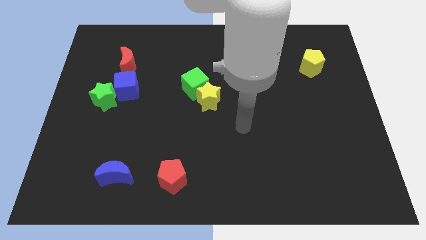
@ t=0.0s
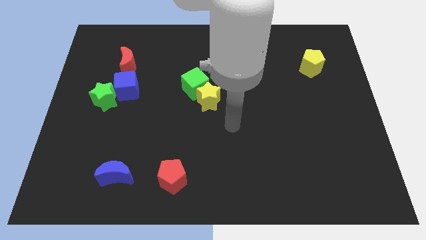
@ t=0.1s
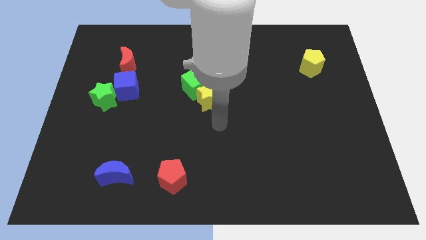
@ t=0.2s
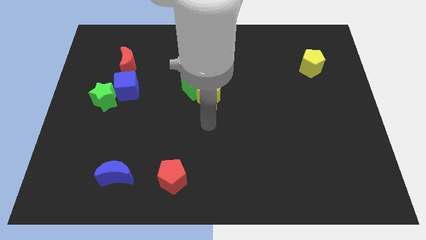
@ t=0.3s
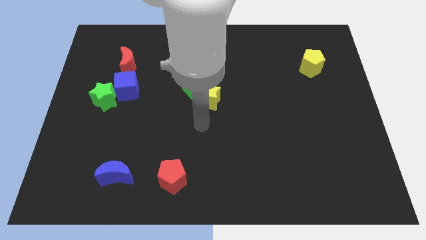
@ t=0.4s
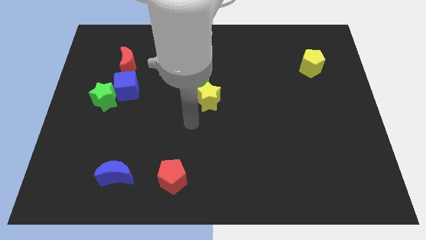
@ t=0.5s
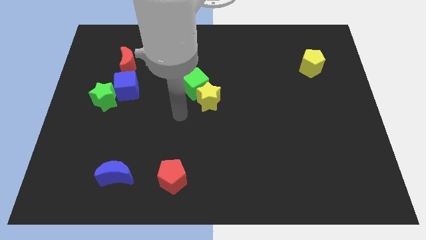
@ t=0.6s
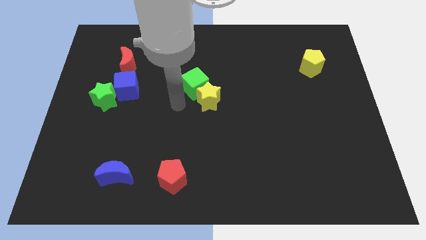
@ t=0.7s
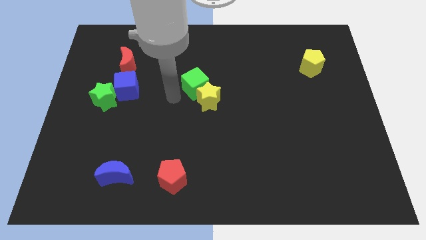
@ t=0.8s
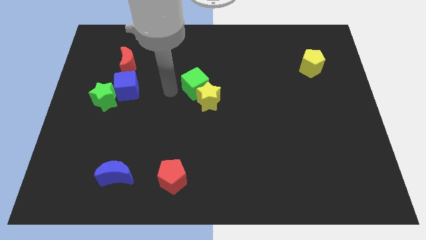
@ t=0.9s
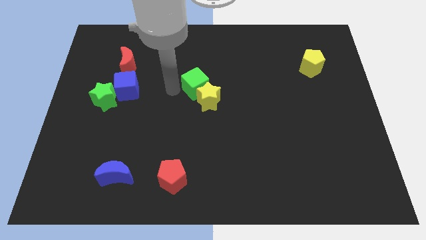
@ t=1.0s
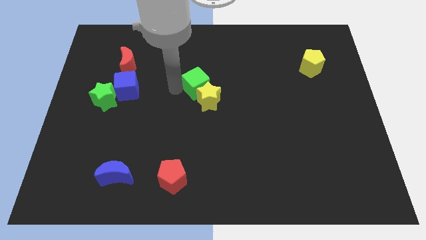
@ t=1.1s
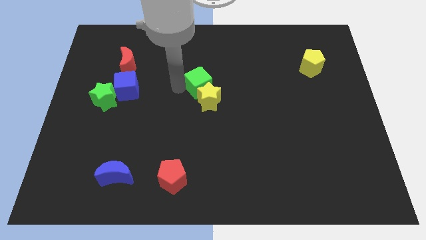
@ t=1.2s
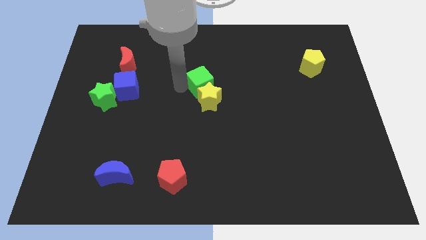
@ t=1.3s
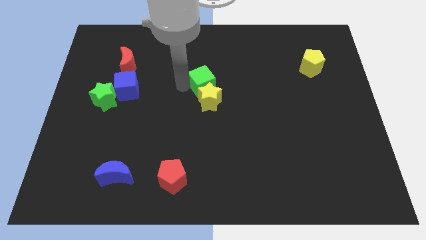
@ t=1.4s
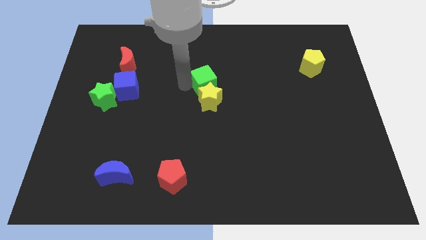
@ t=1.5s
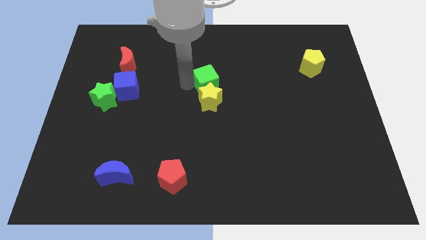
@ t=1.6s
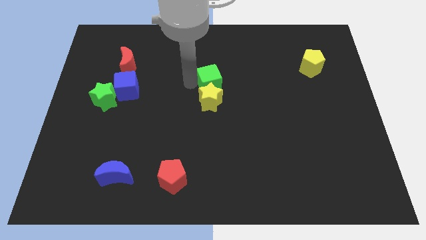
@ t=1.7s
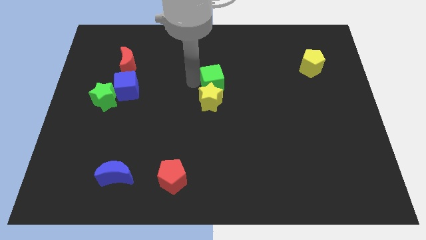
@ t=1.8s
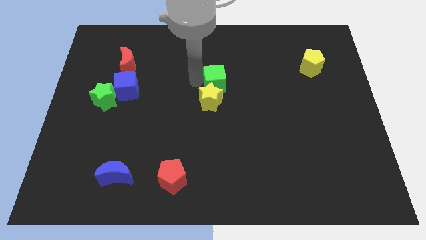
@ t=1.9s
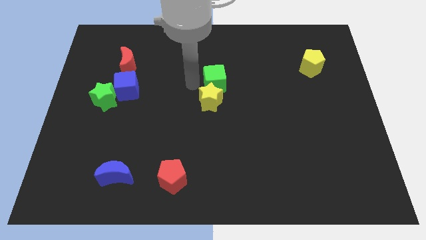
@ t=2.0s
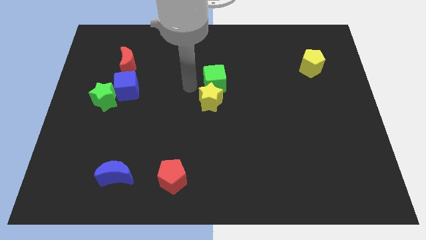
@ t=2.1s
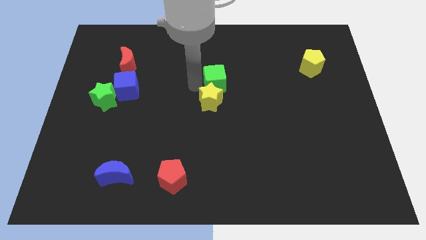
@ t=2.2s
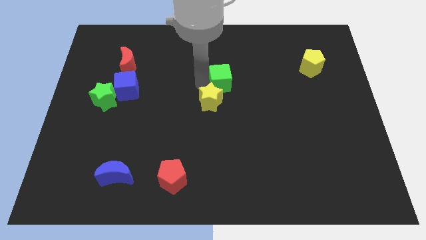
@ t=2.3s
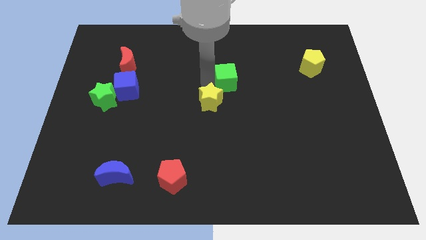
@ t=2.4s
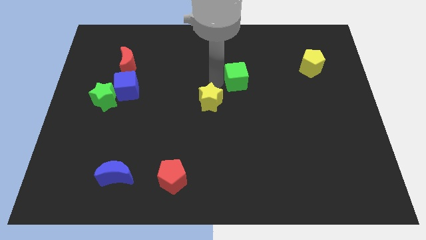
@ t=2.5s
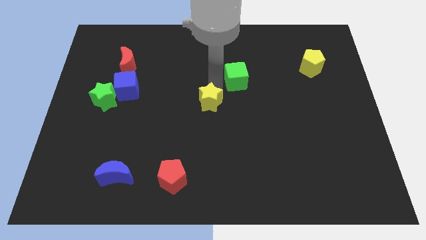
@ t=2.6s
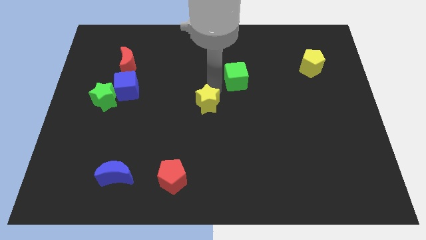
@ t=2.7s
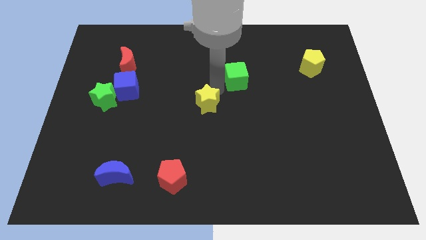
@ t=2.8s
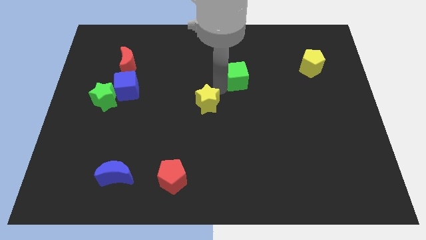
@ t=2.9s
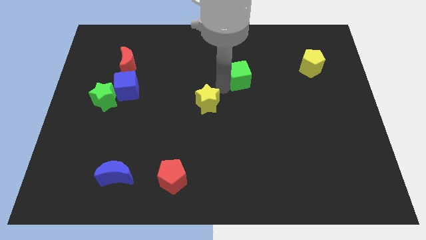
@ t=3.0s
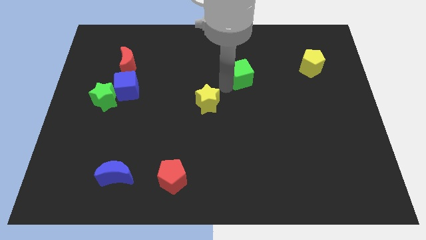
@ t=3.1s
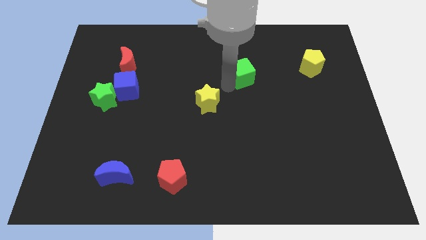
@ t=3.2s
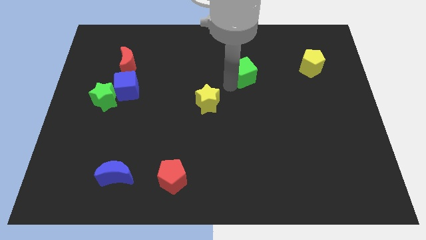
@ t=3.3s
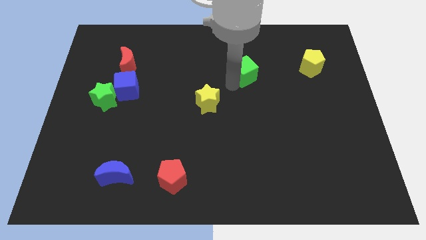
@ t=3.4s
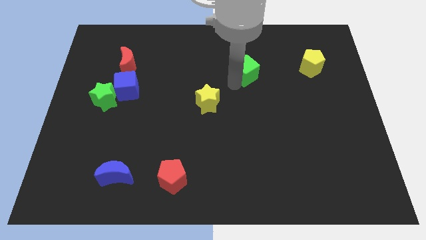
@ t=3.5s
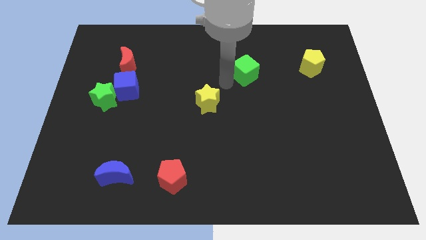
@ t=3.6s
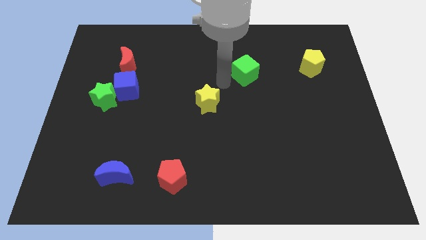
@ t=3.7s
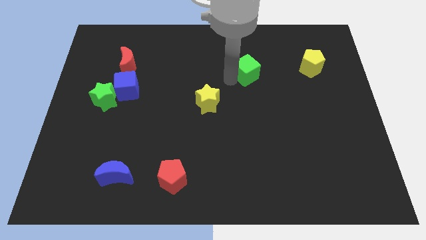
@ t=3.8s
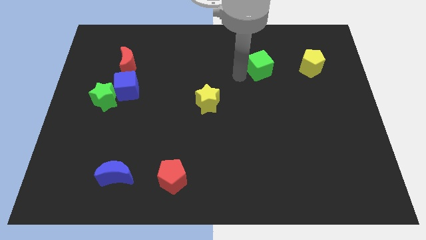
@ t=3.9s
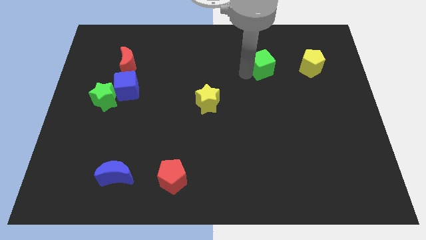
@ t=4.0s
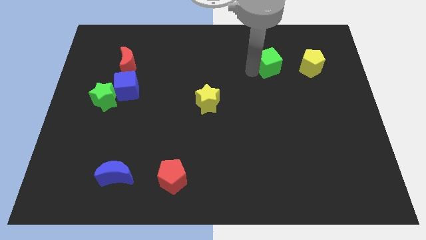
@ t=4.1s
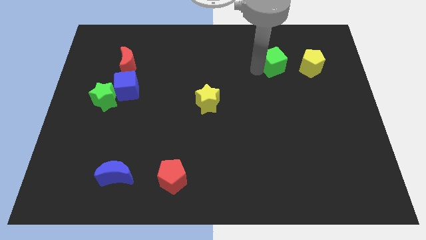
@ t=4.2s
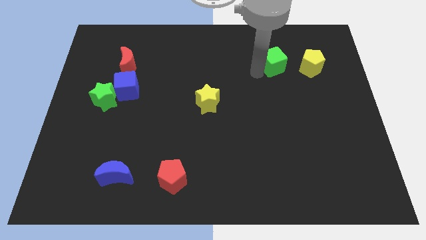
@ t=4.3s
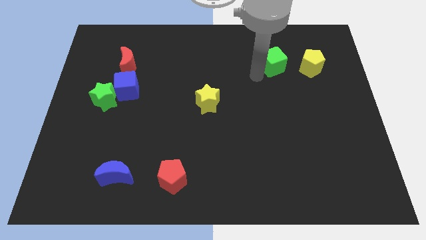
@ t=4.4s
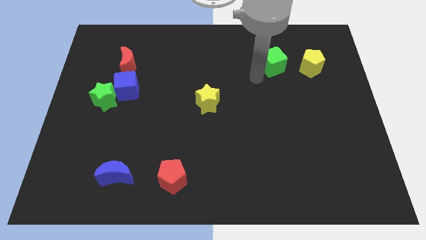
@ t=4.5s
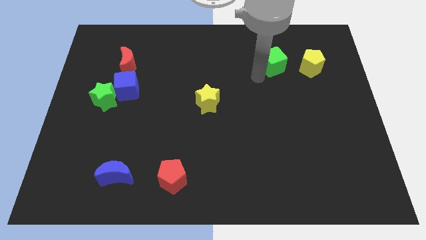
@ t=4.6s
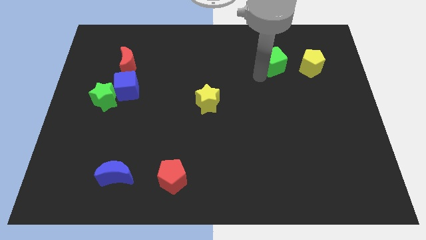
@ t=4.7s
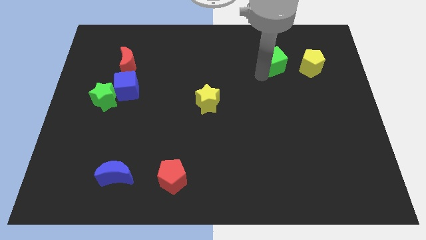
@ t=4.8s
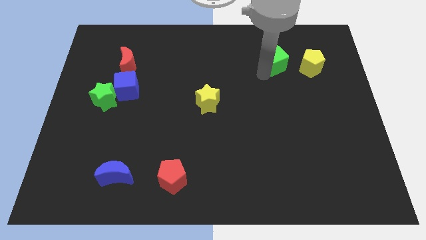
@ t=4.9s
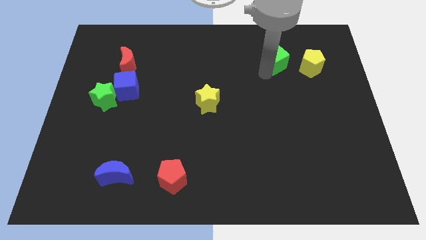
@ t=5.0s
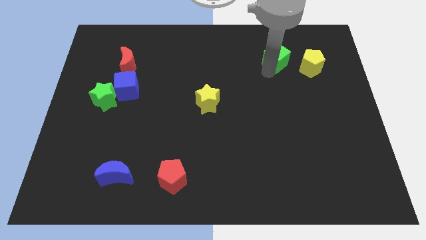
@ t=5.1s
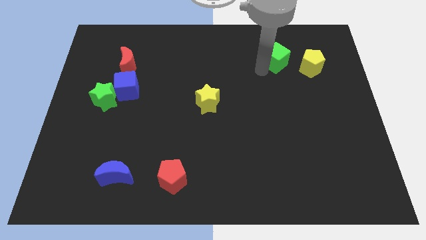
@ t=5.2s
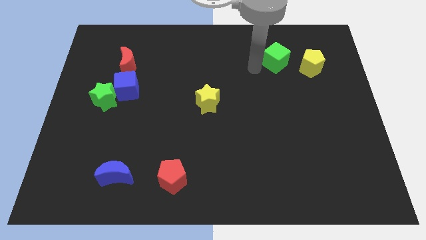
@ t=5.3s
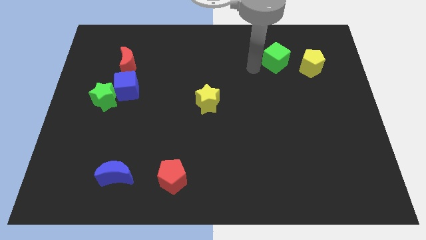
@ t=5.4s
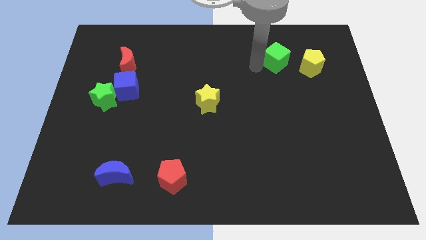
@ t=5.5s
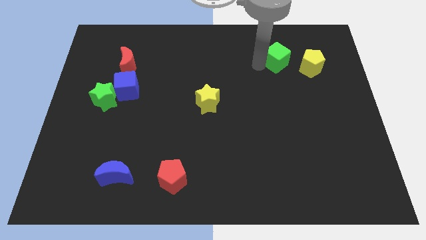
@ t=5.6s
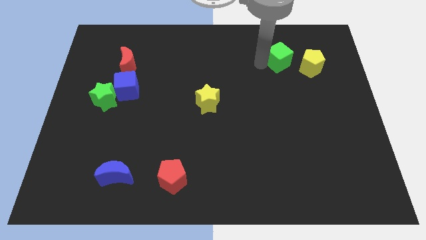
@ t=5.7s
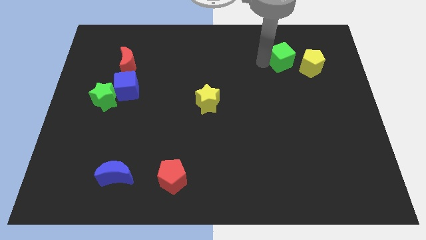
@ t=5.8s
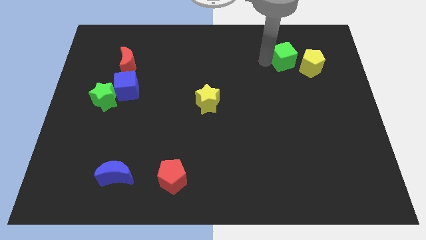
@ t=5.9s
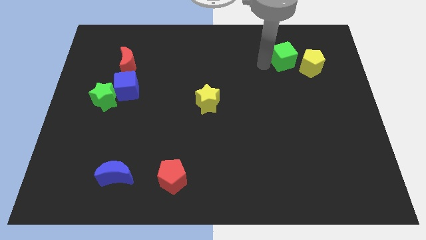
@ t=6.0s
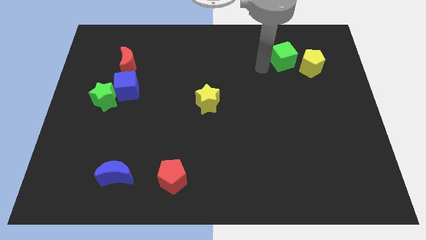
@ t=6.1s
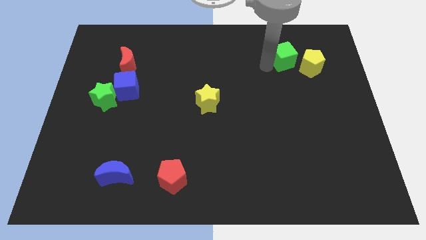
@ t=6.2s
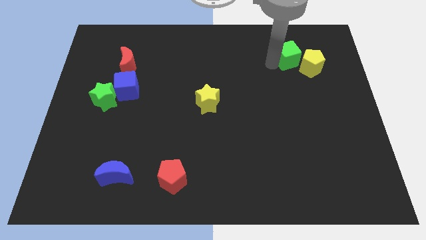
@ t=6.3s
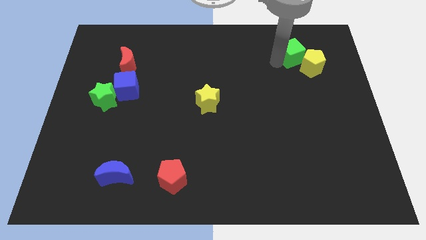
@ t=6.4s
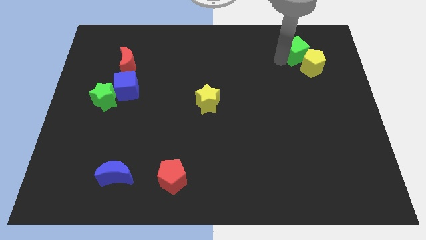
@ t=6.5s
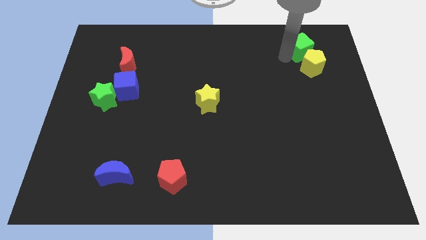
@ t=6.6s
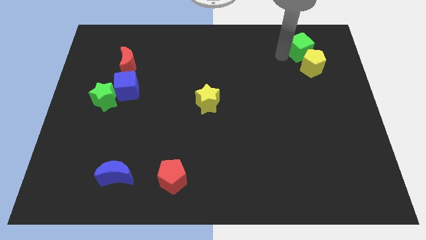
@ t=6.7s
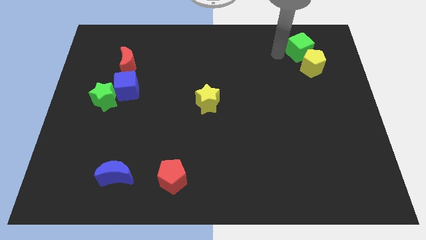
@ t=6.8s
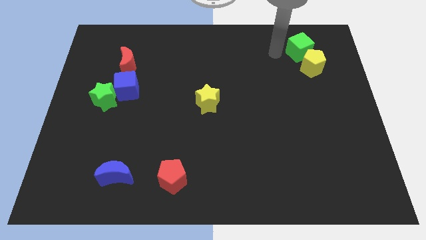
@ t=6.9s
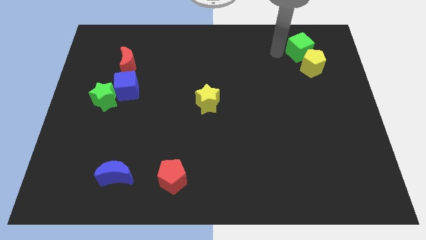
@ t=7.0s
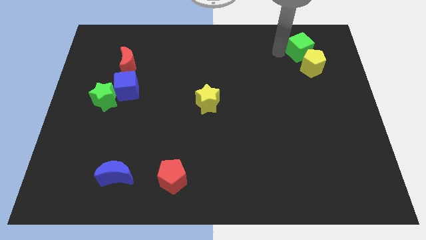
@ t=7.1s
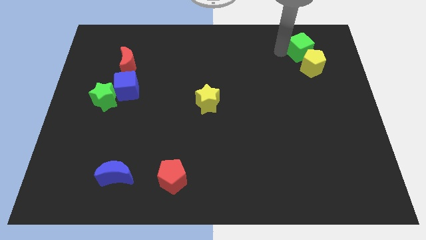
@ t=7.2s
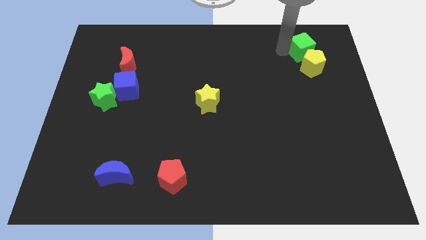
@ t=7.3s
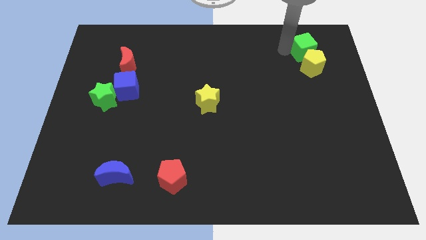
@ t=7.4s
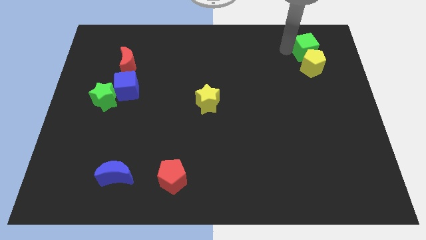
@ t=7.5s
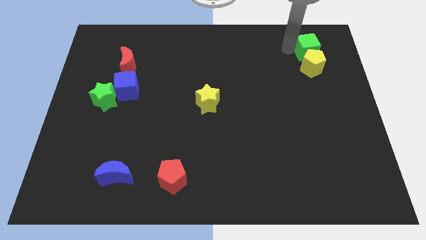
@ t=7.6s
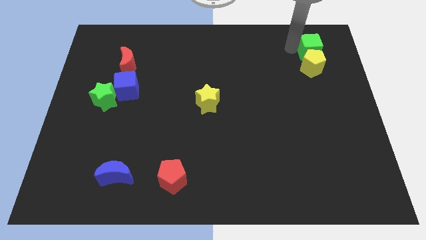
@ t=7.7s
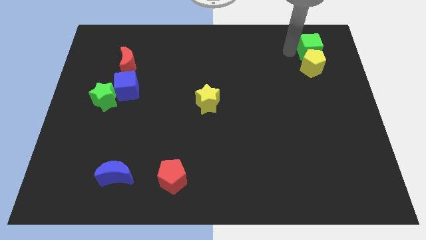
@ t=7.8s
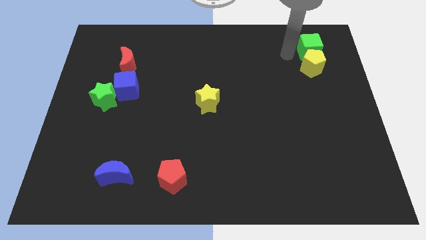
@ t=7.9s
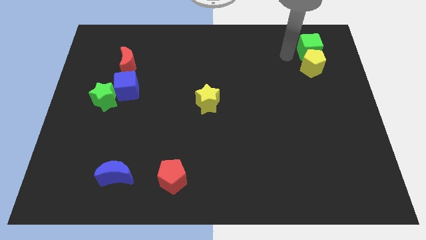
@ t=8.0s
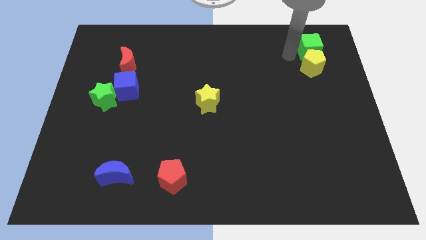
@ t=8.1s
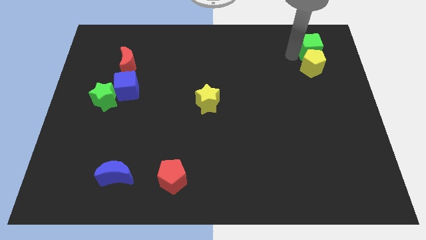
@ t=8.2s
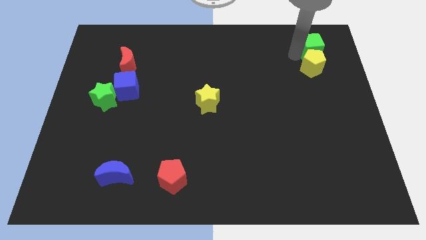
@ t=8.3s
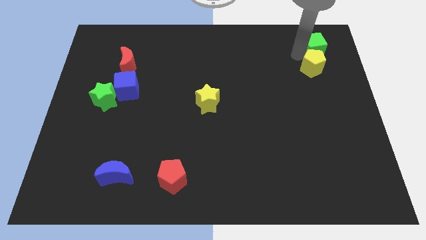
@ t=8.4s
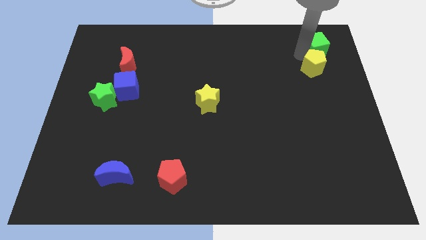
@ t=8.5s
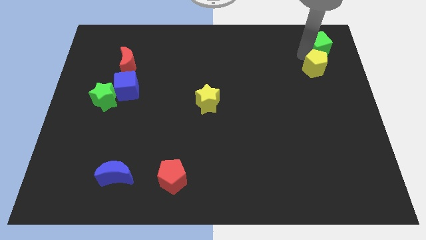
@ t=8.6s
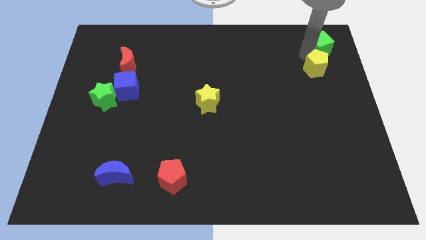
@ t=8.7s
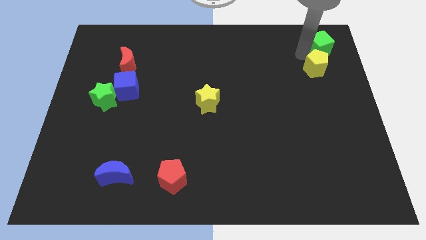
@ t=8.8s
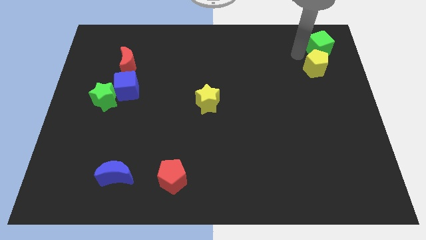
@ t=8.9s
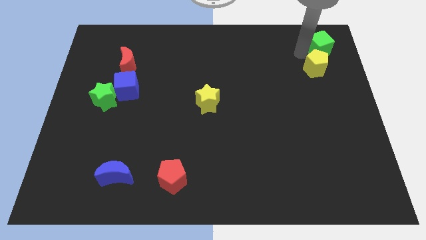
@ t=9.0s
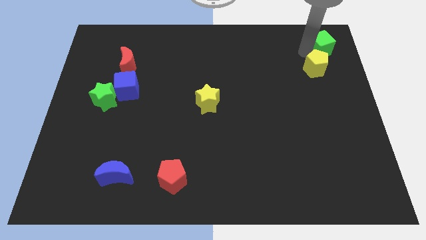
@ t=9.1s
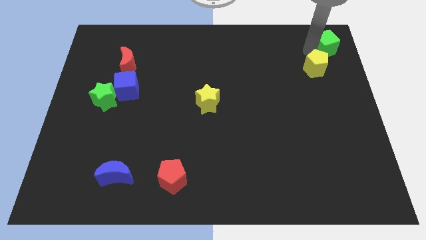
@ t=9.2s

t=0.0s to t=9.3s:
put the green cube to the upper right corner
